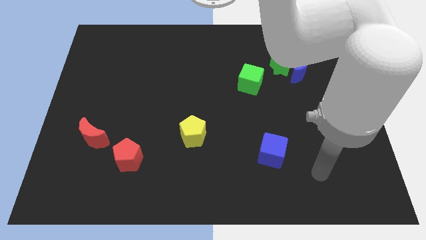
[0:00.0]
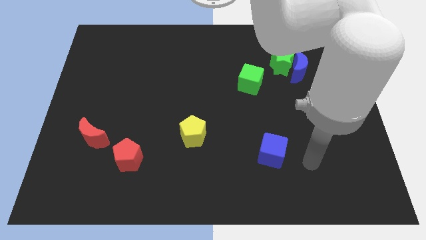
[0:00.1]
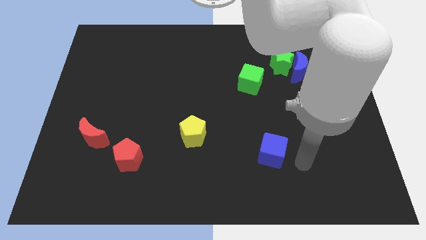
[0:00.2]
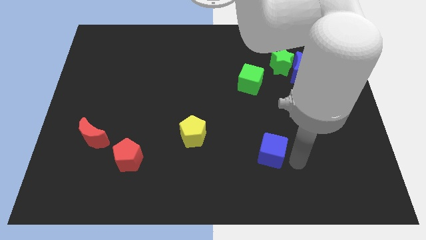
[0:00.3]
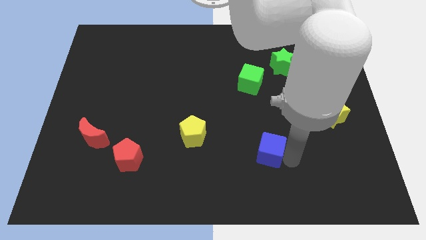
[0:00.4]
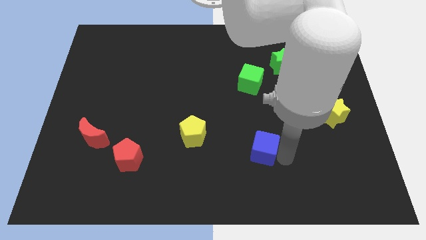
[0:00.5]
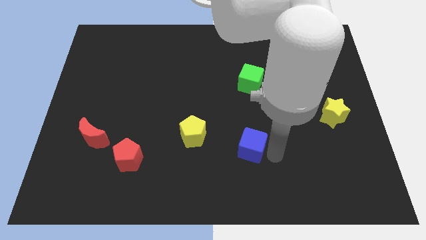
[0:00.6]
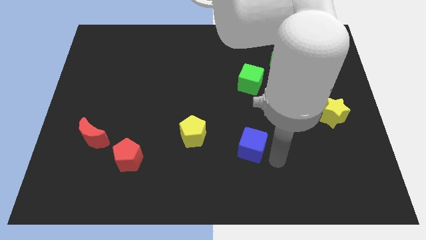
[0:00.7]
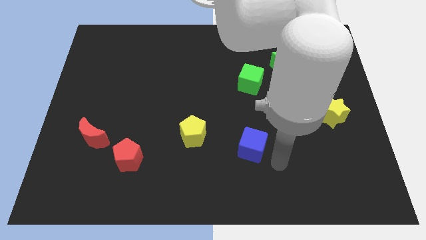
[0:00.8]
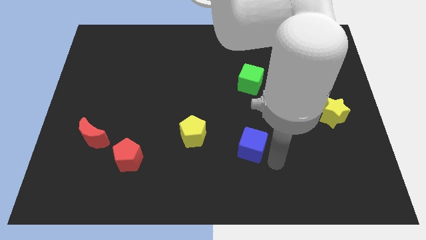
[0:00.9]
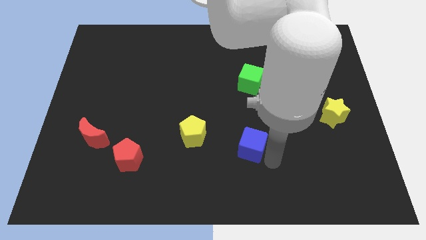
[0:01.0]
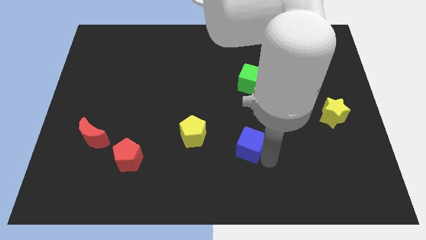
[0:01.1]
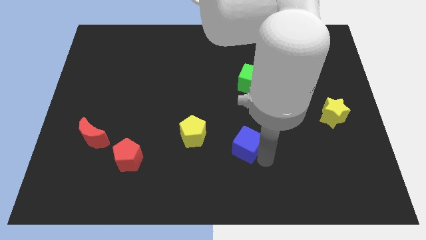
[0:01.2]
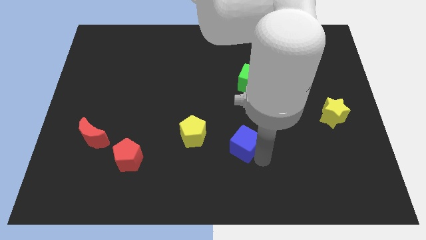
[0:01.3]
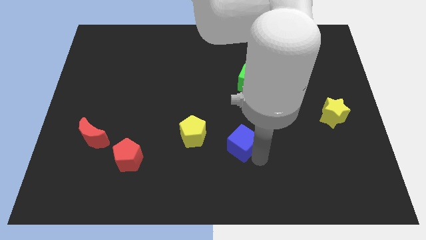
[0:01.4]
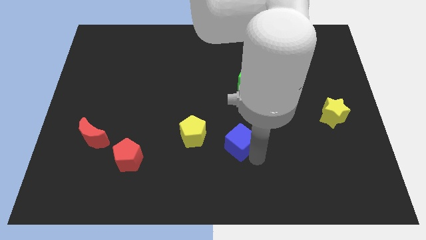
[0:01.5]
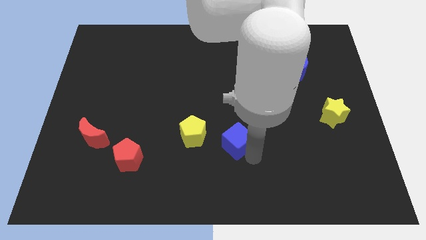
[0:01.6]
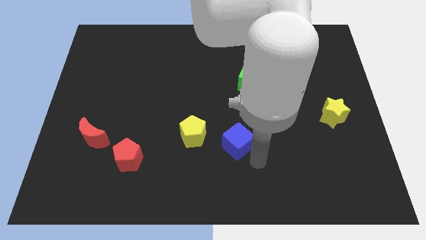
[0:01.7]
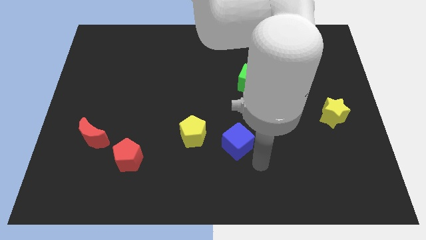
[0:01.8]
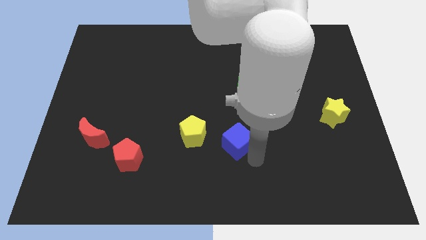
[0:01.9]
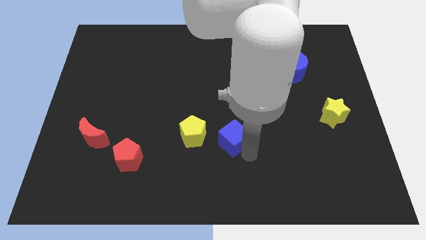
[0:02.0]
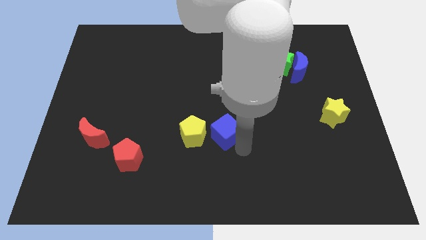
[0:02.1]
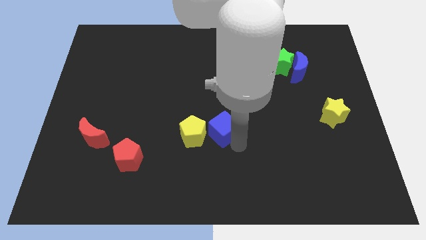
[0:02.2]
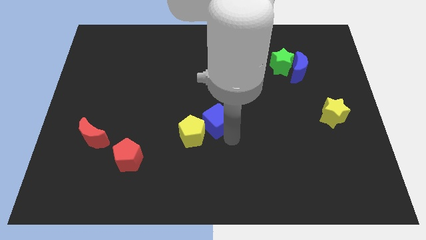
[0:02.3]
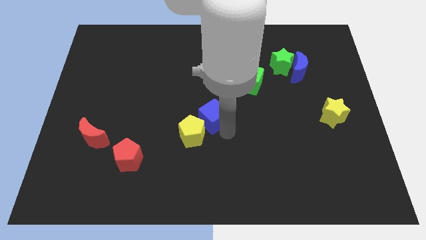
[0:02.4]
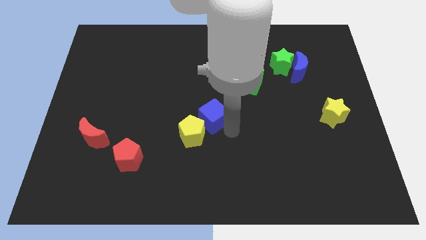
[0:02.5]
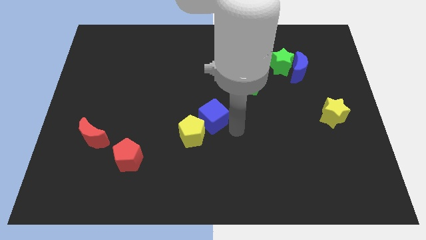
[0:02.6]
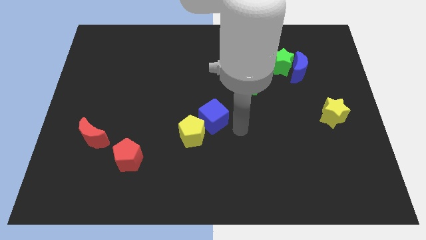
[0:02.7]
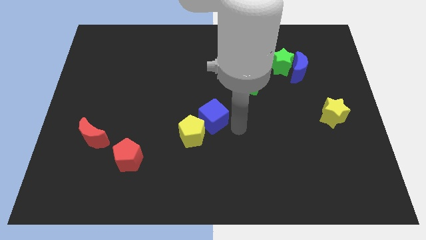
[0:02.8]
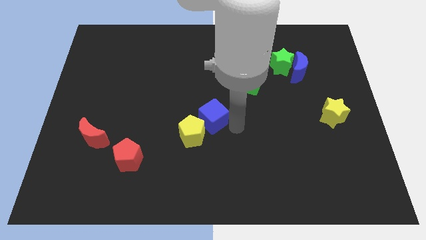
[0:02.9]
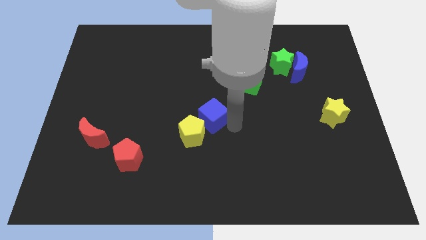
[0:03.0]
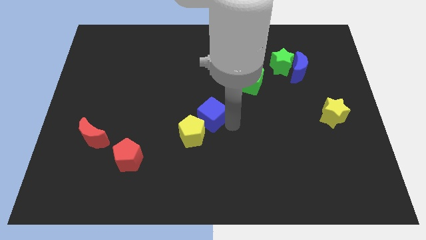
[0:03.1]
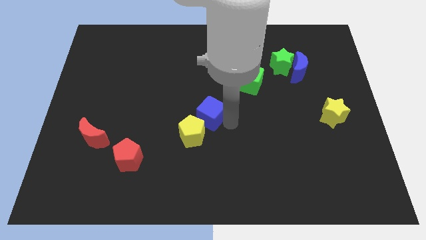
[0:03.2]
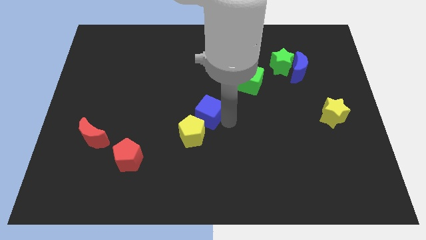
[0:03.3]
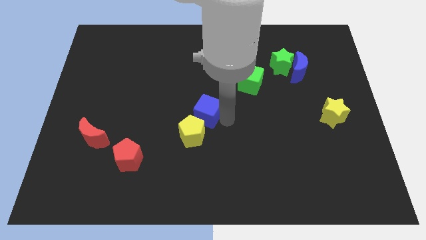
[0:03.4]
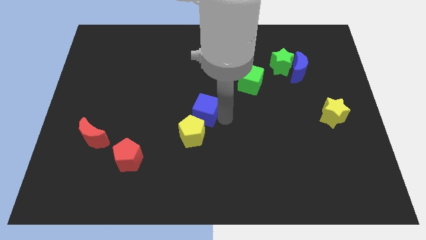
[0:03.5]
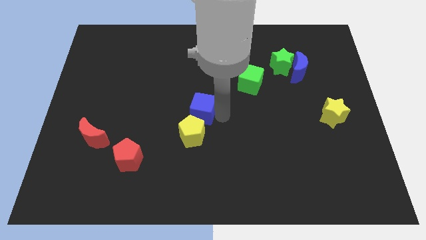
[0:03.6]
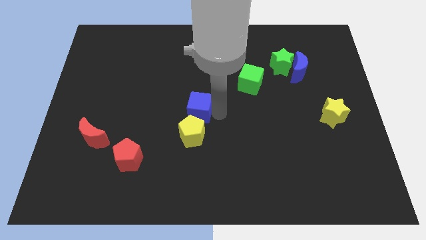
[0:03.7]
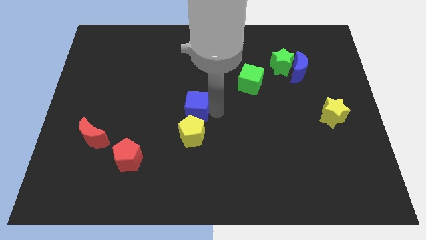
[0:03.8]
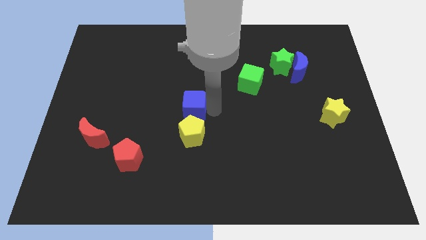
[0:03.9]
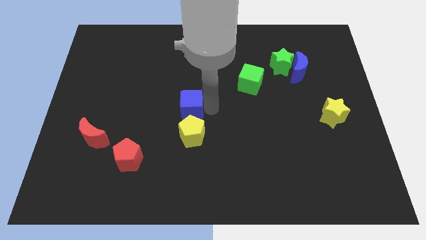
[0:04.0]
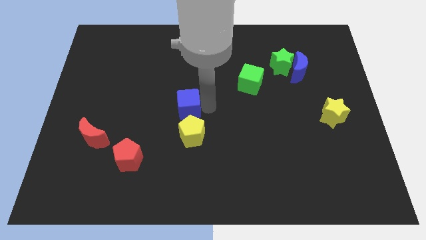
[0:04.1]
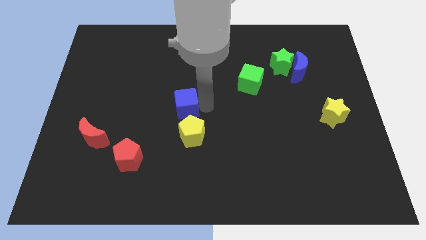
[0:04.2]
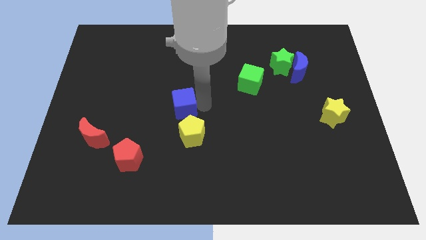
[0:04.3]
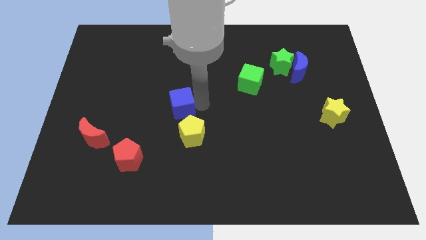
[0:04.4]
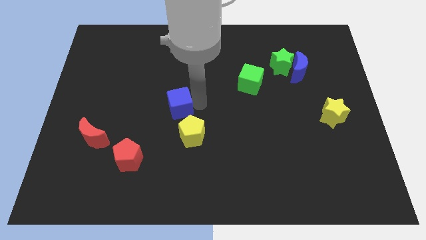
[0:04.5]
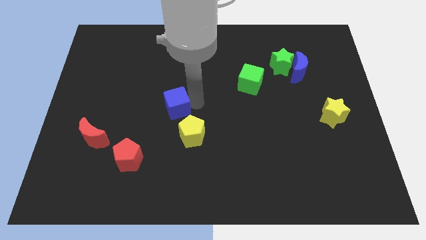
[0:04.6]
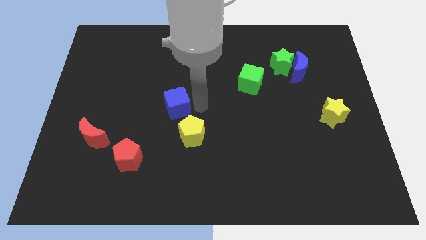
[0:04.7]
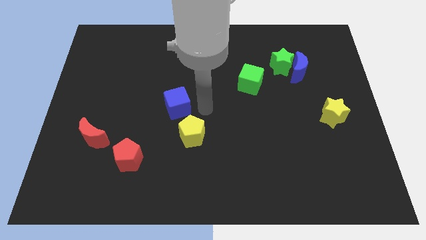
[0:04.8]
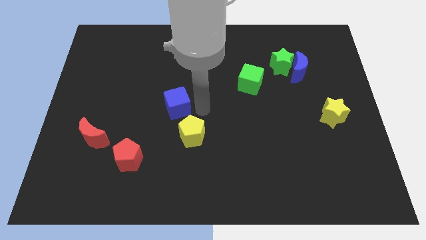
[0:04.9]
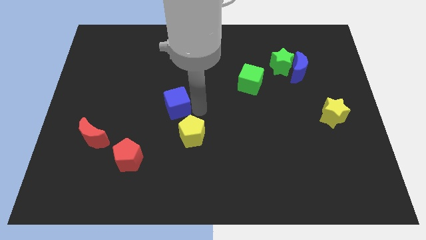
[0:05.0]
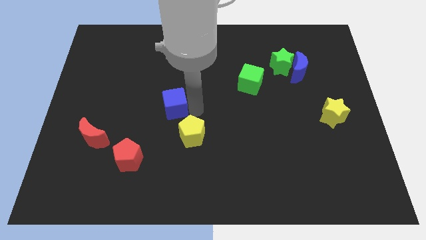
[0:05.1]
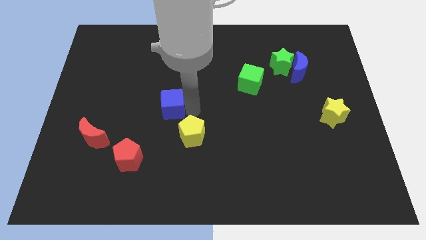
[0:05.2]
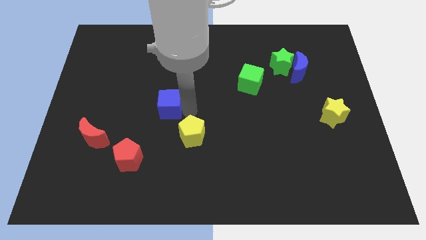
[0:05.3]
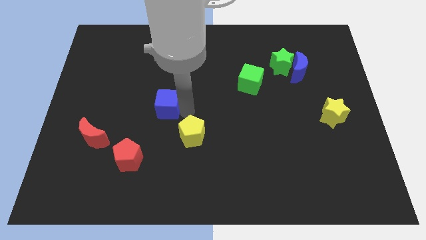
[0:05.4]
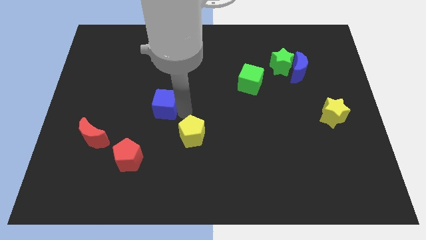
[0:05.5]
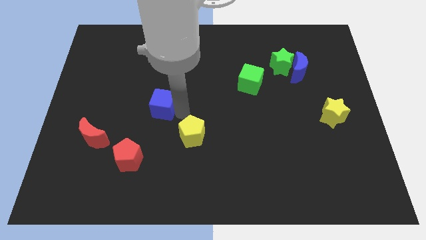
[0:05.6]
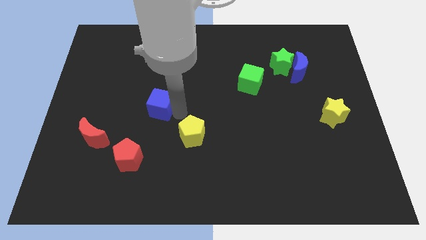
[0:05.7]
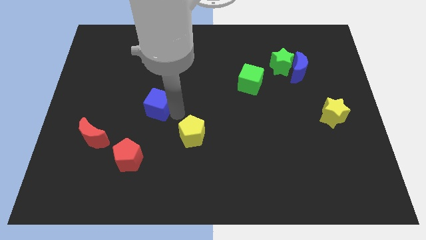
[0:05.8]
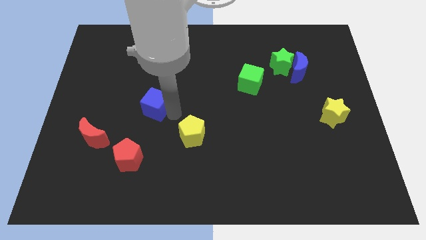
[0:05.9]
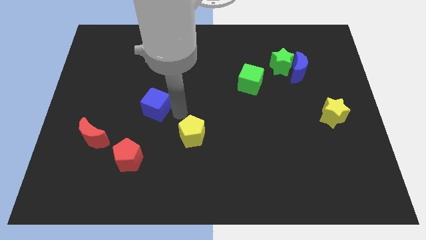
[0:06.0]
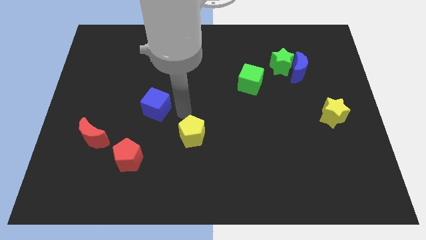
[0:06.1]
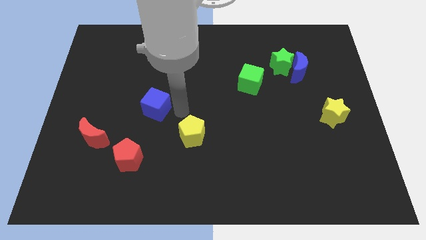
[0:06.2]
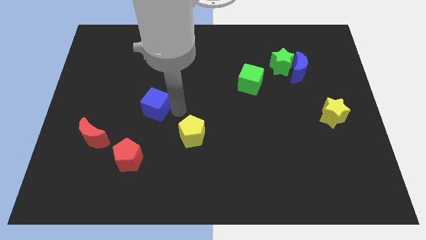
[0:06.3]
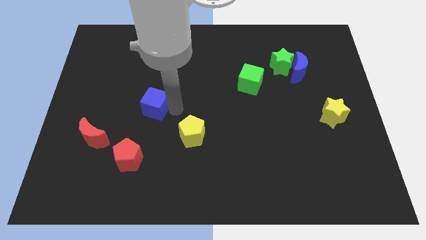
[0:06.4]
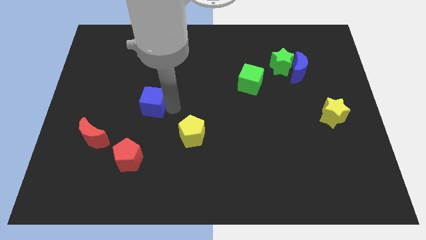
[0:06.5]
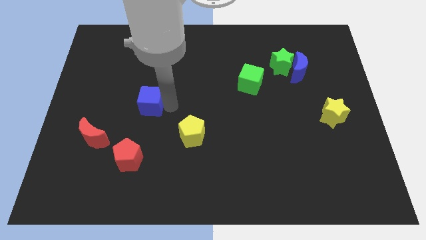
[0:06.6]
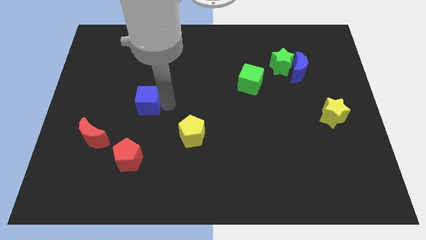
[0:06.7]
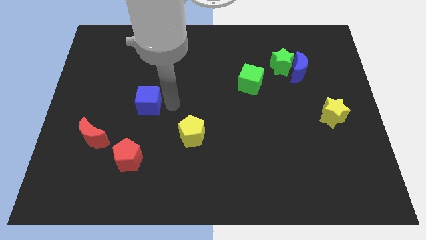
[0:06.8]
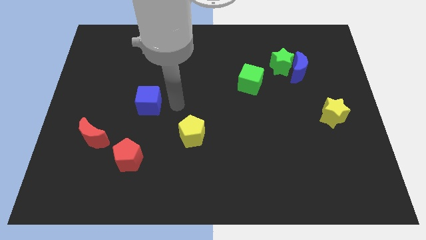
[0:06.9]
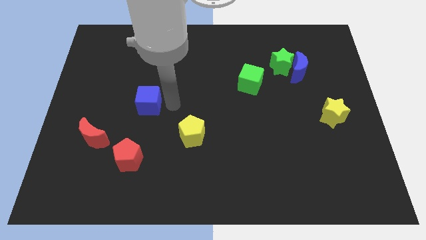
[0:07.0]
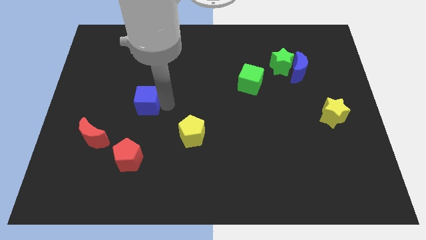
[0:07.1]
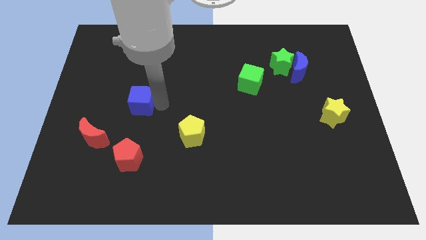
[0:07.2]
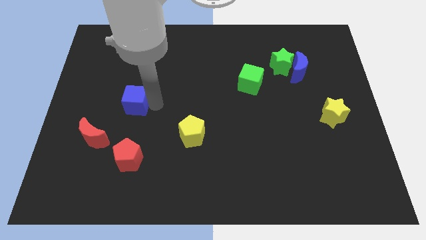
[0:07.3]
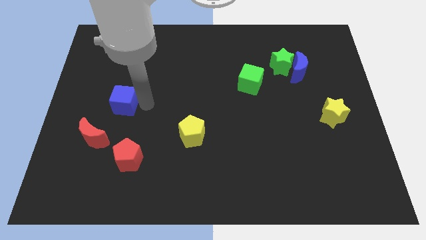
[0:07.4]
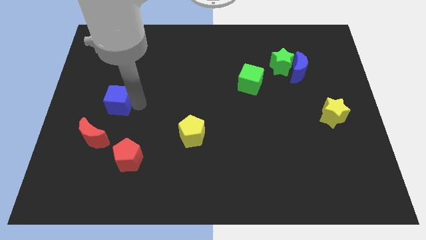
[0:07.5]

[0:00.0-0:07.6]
put the blue cube above the red moon

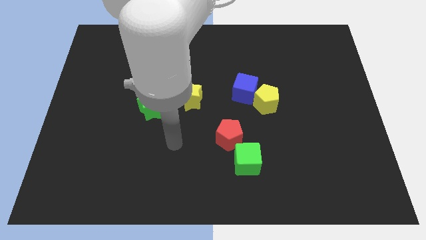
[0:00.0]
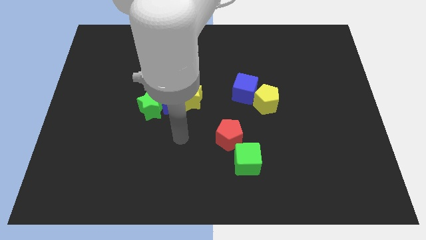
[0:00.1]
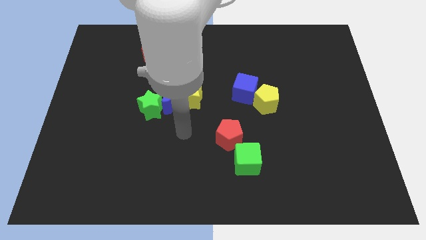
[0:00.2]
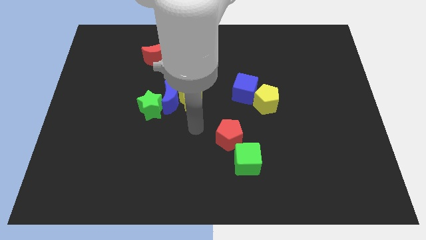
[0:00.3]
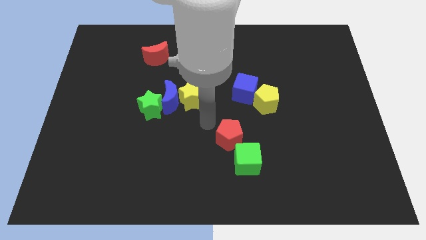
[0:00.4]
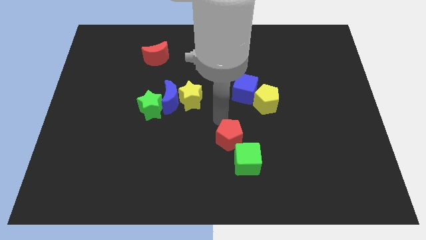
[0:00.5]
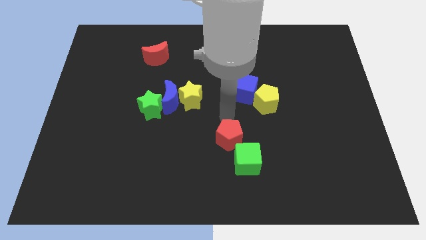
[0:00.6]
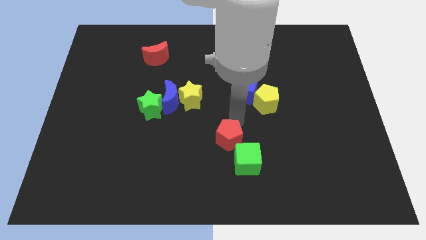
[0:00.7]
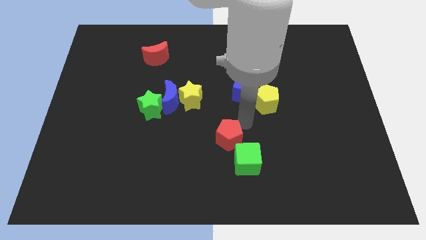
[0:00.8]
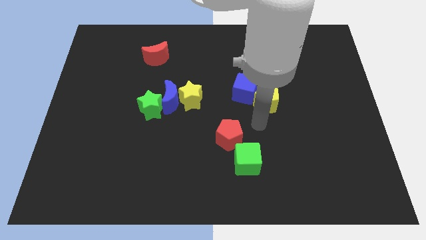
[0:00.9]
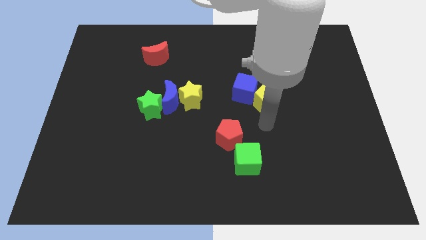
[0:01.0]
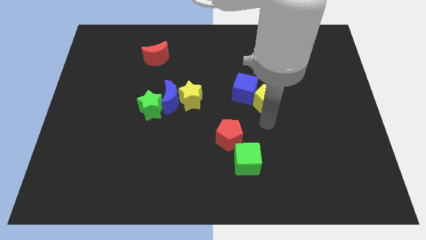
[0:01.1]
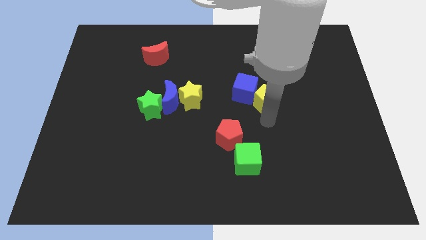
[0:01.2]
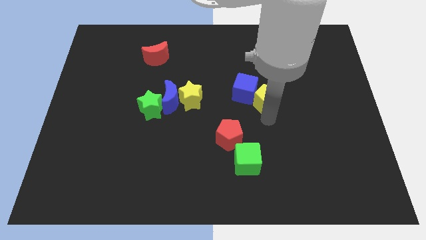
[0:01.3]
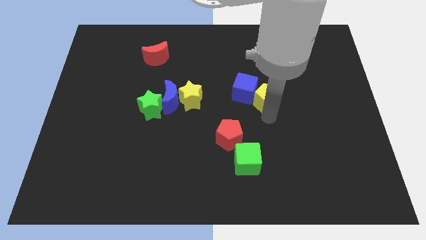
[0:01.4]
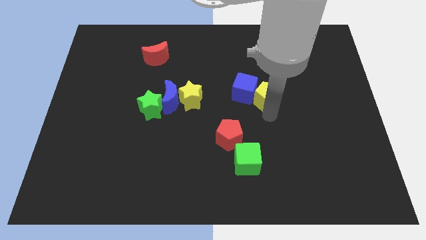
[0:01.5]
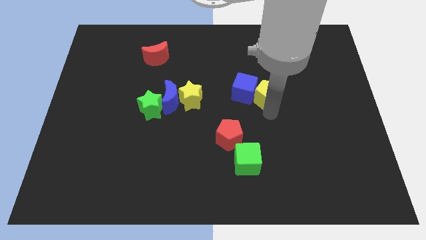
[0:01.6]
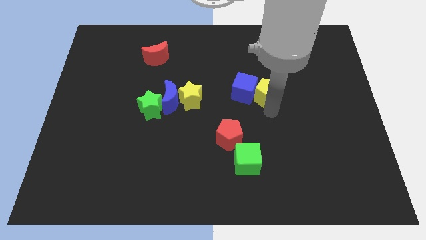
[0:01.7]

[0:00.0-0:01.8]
put the yellow pentagon diagonally up and to the right of the blue cube
